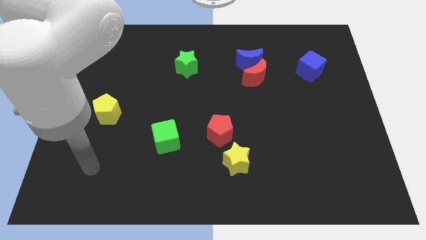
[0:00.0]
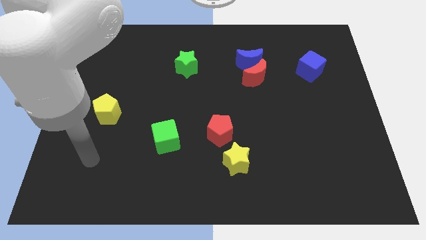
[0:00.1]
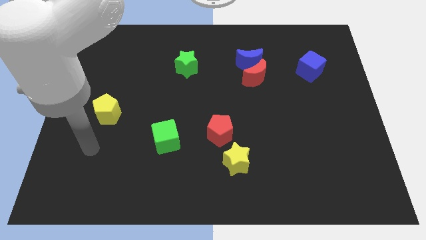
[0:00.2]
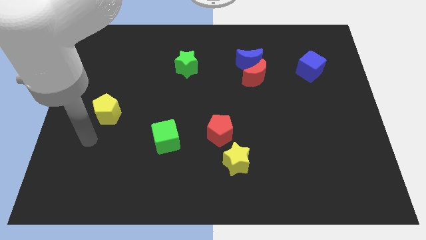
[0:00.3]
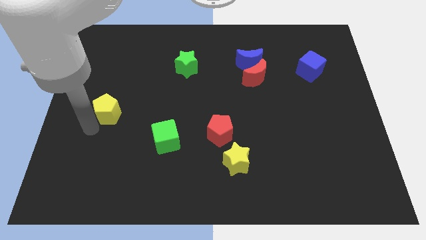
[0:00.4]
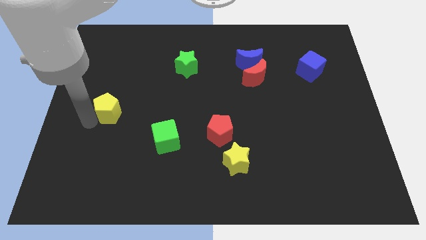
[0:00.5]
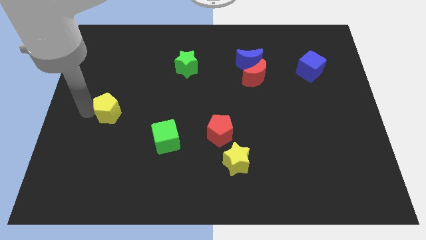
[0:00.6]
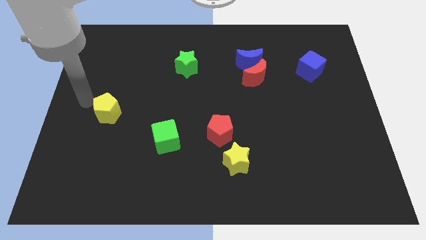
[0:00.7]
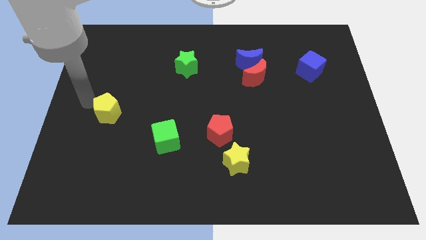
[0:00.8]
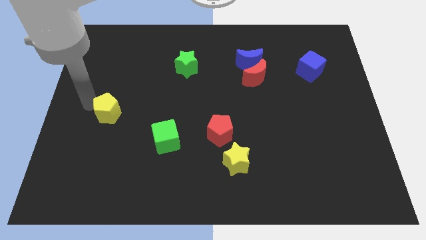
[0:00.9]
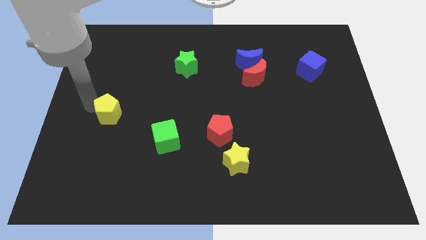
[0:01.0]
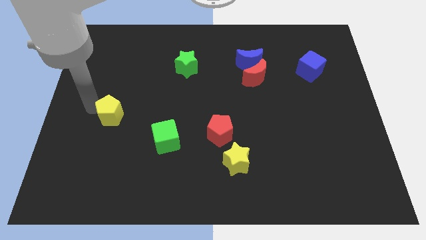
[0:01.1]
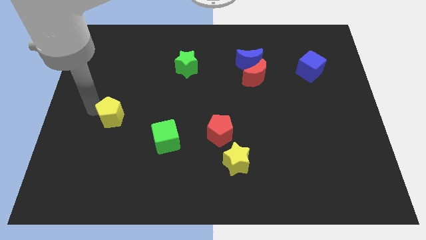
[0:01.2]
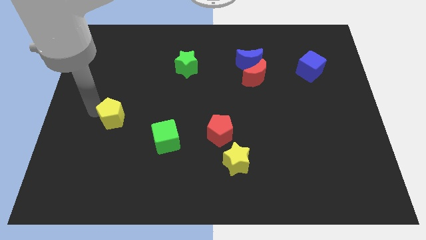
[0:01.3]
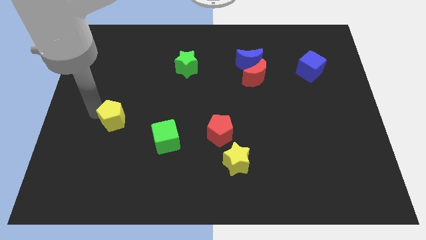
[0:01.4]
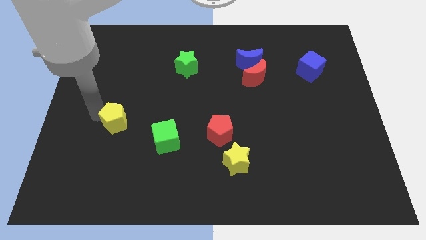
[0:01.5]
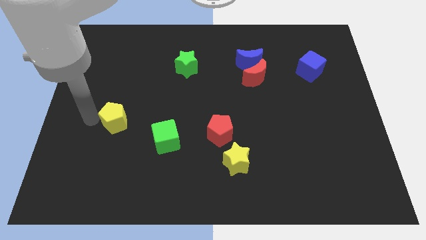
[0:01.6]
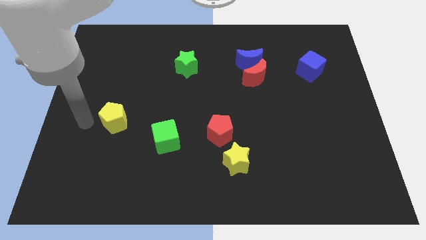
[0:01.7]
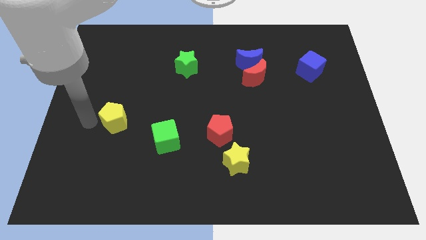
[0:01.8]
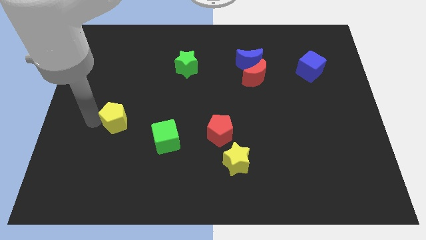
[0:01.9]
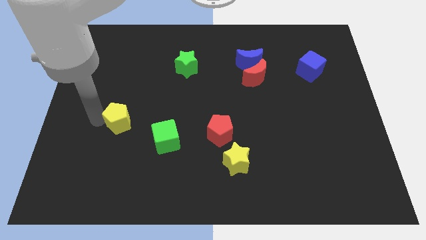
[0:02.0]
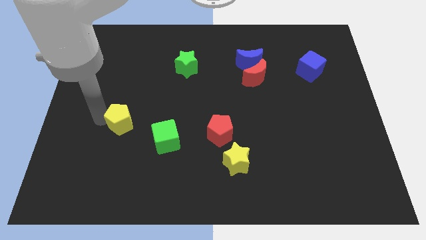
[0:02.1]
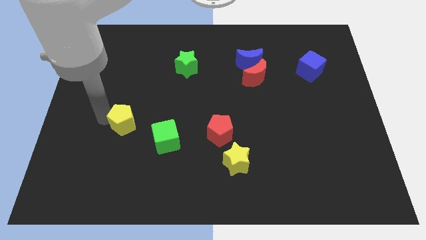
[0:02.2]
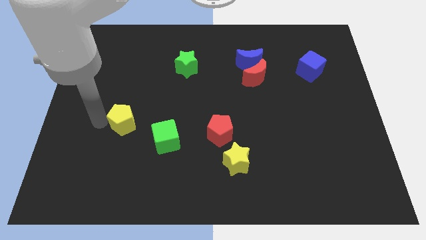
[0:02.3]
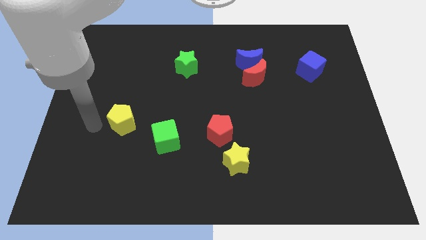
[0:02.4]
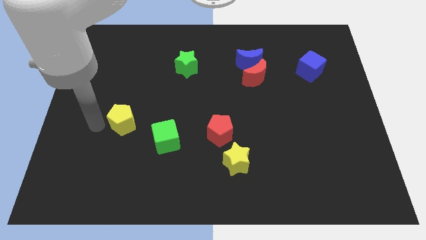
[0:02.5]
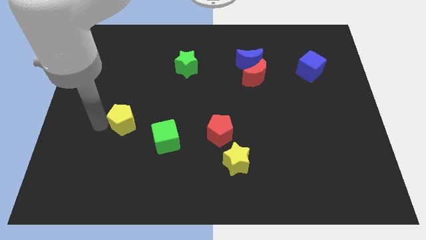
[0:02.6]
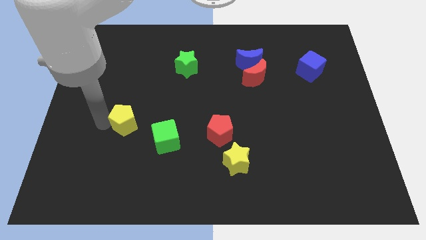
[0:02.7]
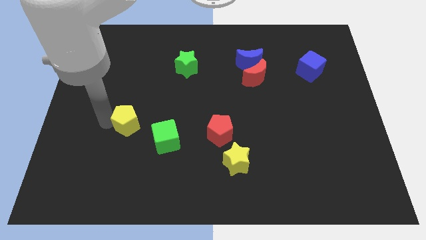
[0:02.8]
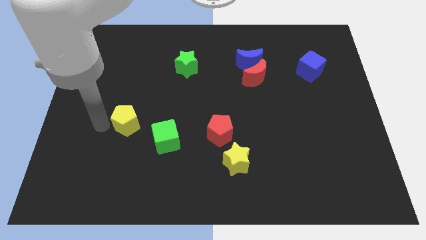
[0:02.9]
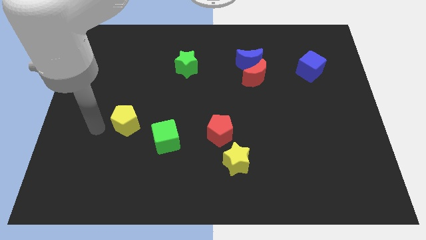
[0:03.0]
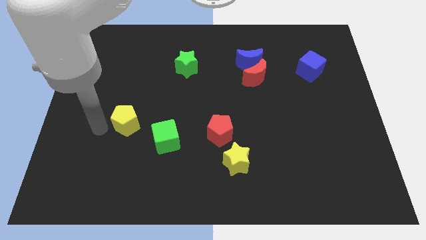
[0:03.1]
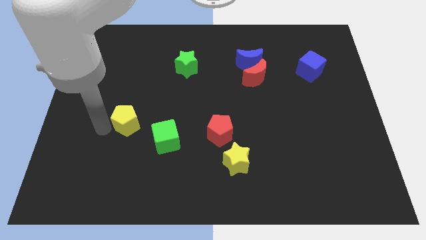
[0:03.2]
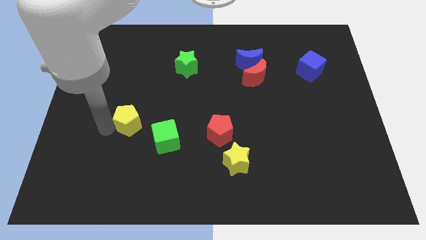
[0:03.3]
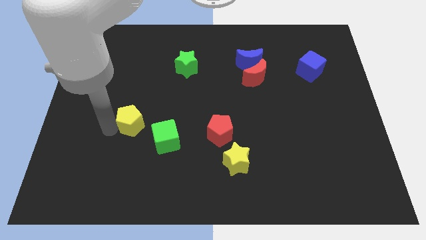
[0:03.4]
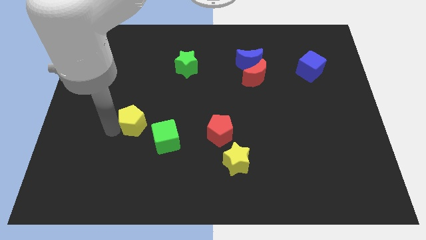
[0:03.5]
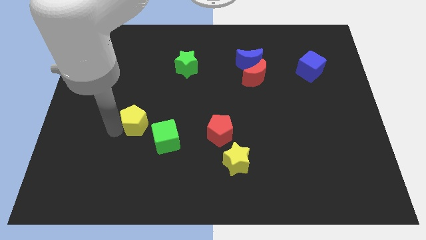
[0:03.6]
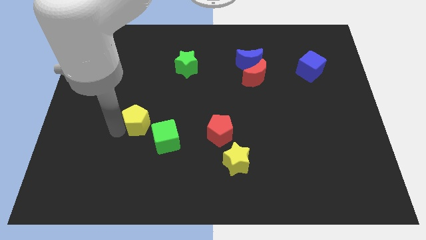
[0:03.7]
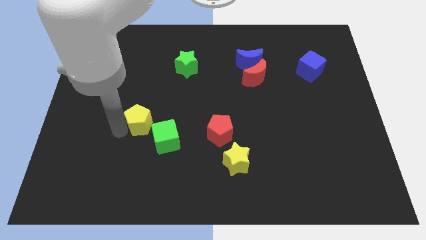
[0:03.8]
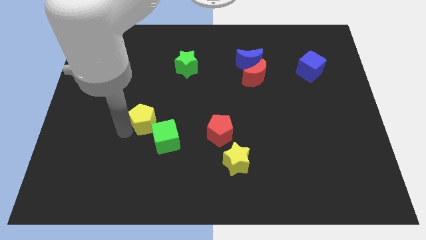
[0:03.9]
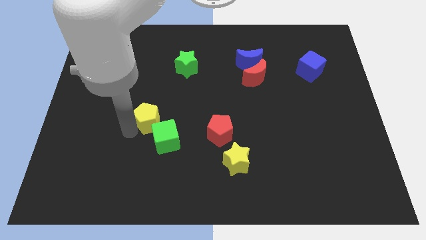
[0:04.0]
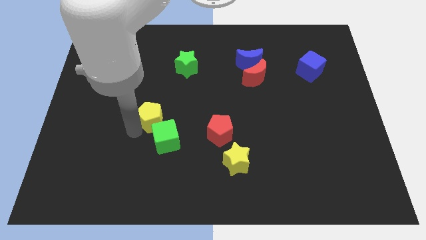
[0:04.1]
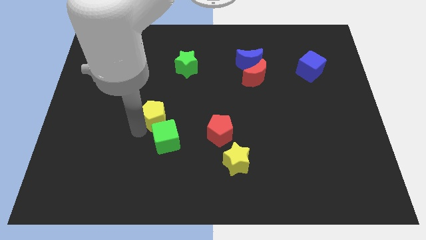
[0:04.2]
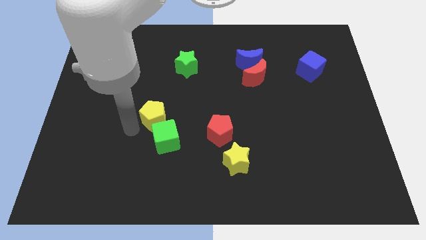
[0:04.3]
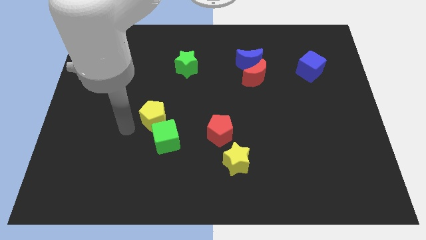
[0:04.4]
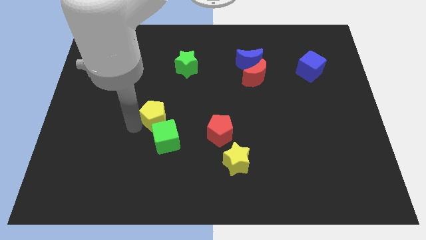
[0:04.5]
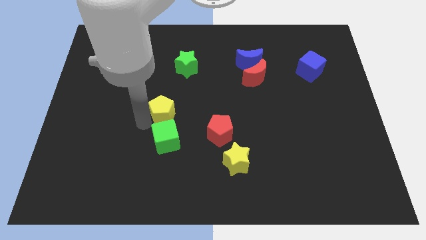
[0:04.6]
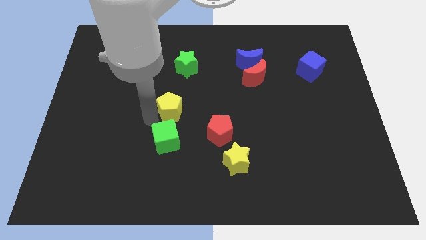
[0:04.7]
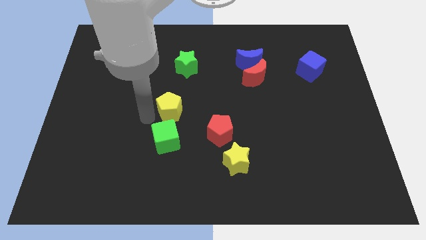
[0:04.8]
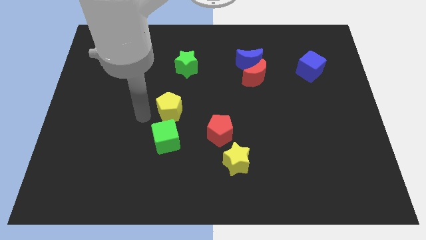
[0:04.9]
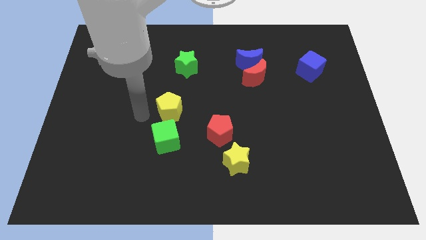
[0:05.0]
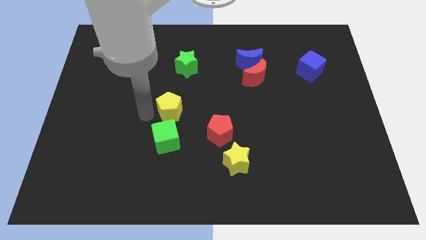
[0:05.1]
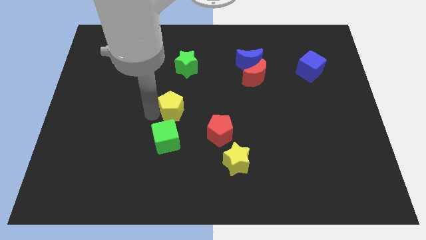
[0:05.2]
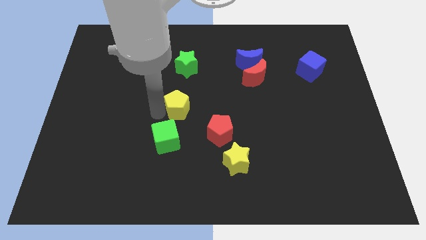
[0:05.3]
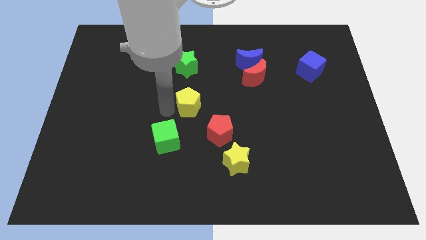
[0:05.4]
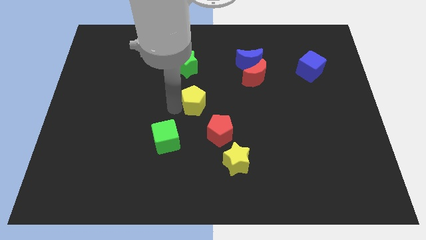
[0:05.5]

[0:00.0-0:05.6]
slide the yellow pentagon to the right

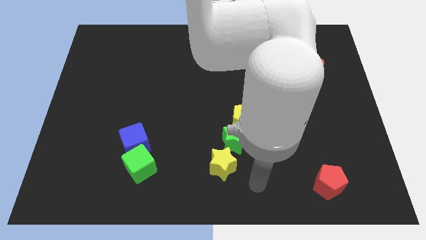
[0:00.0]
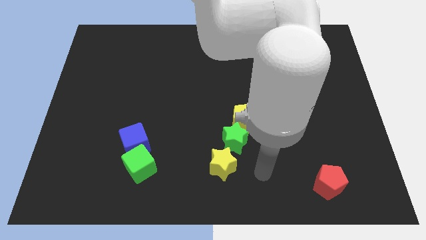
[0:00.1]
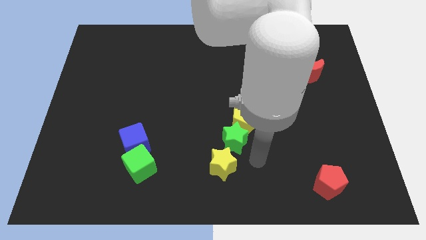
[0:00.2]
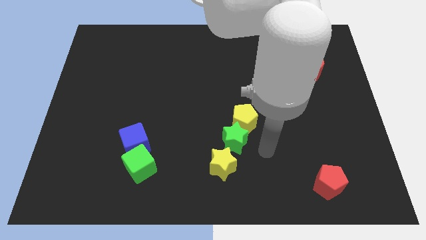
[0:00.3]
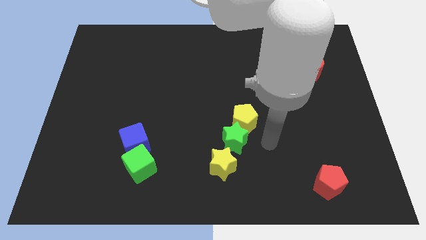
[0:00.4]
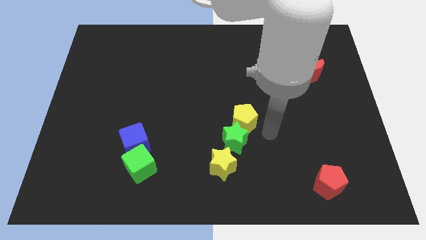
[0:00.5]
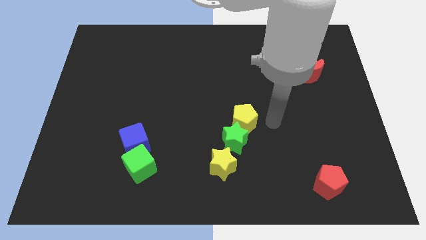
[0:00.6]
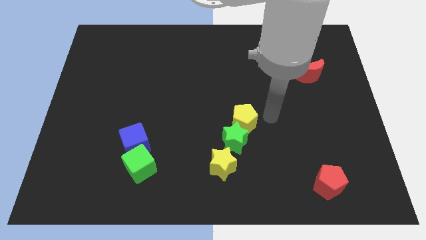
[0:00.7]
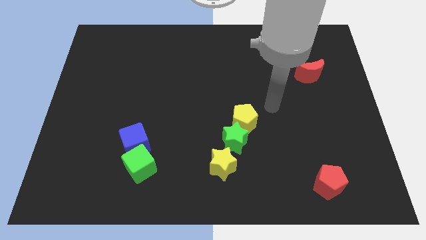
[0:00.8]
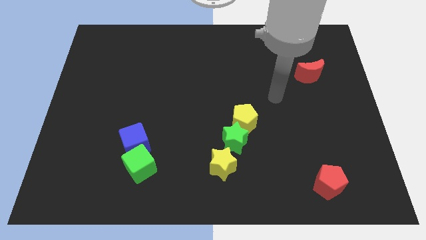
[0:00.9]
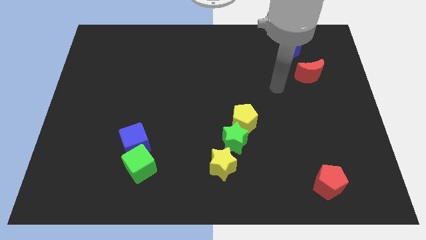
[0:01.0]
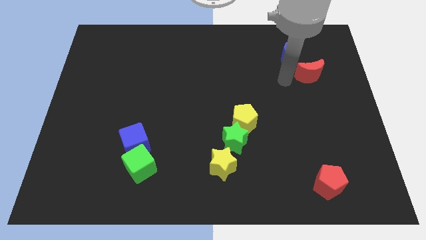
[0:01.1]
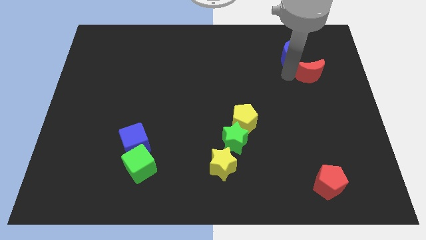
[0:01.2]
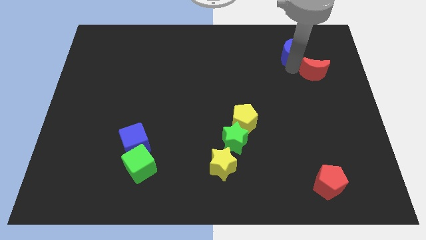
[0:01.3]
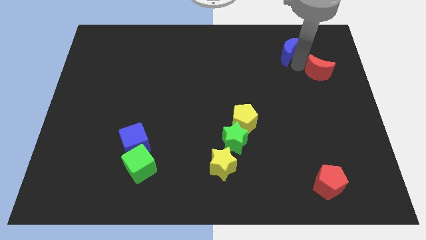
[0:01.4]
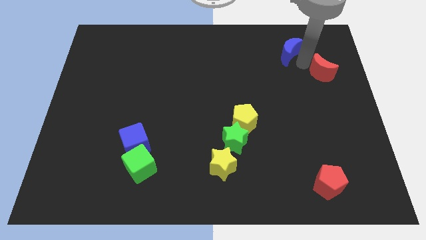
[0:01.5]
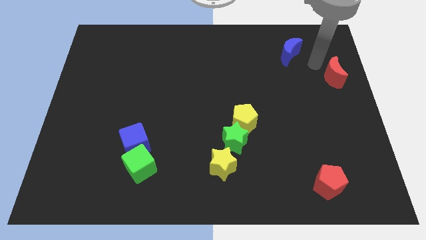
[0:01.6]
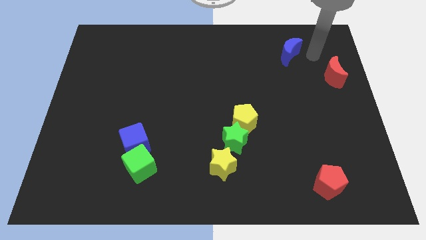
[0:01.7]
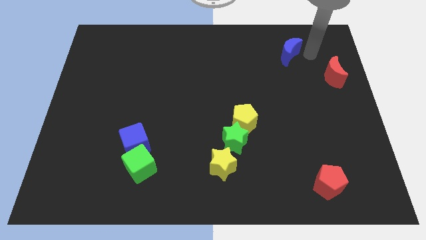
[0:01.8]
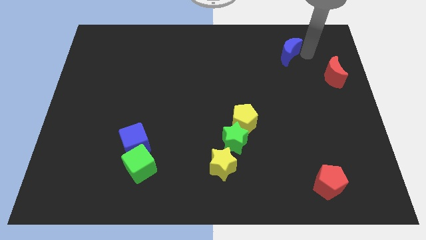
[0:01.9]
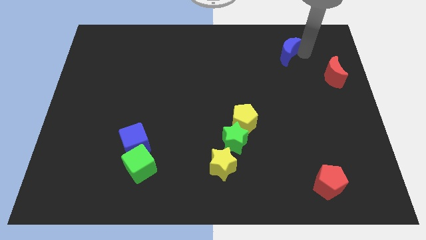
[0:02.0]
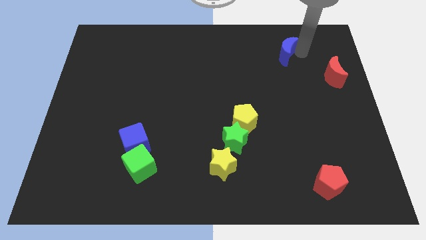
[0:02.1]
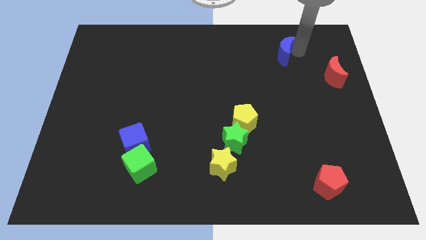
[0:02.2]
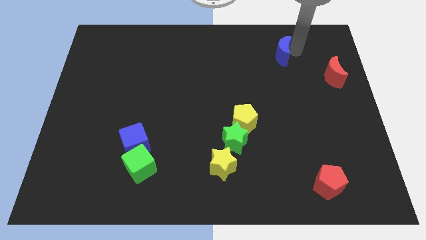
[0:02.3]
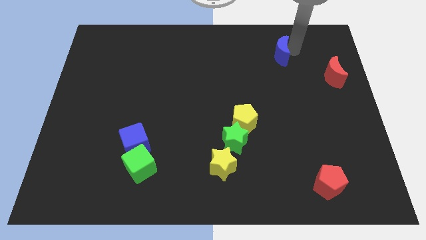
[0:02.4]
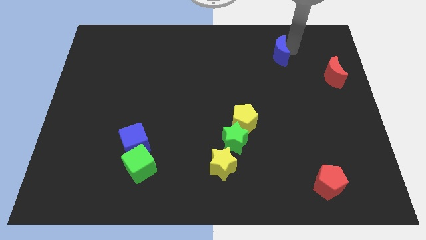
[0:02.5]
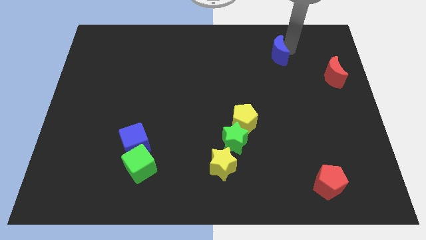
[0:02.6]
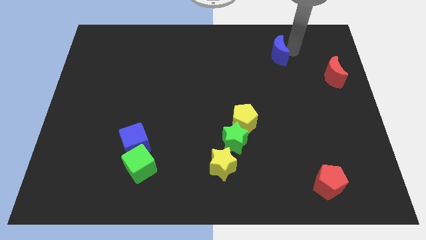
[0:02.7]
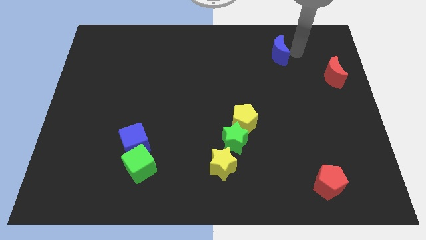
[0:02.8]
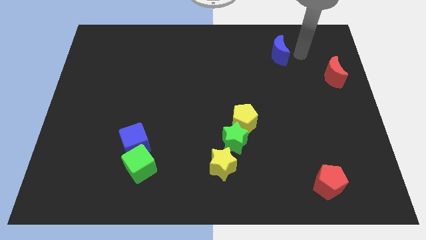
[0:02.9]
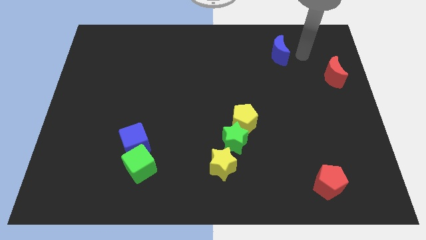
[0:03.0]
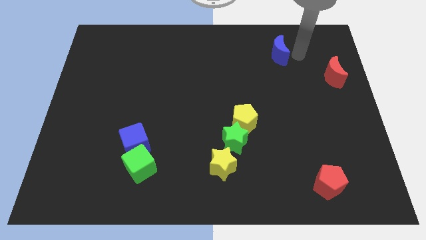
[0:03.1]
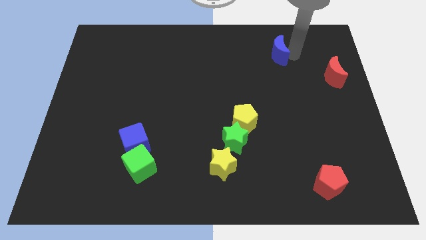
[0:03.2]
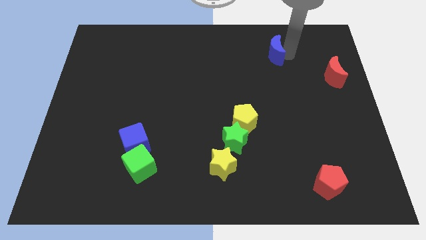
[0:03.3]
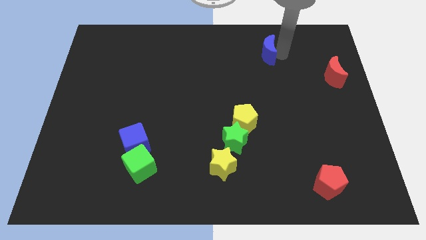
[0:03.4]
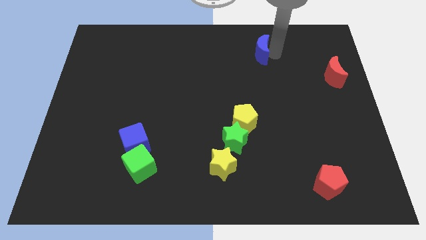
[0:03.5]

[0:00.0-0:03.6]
push the blue moon somewhat left
